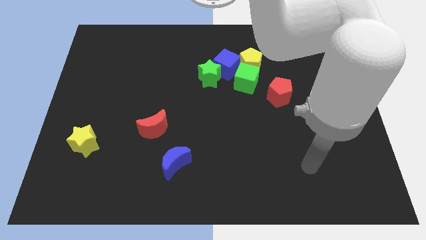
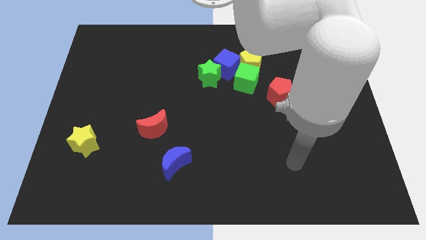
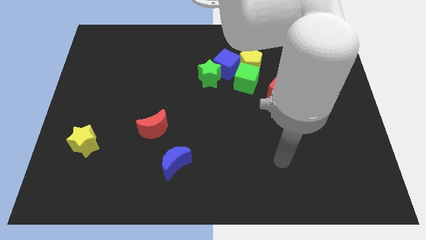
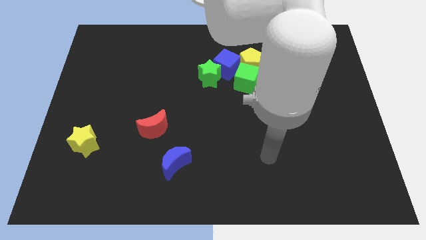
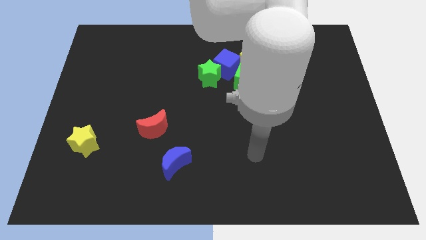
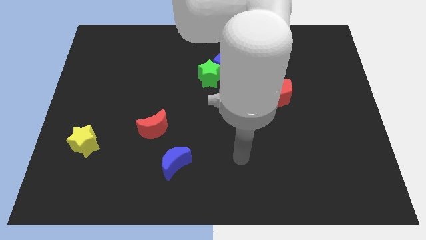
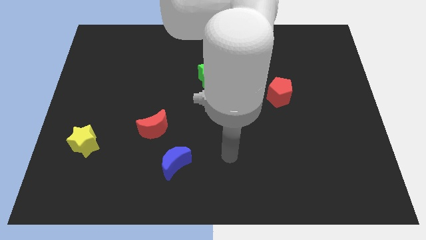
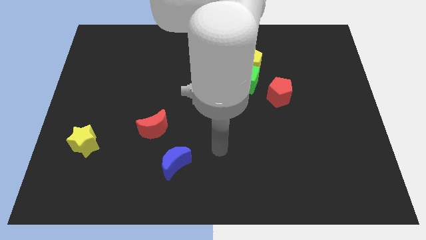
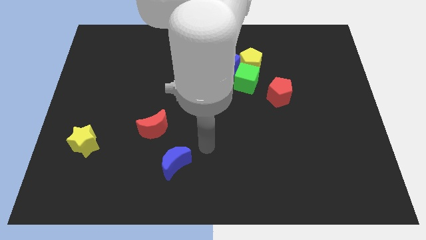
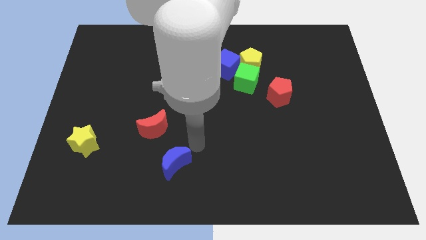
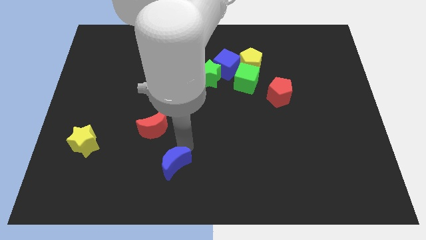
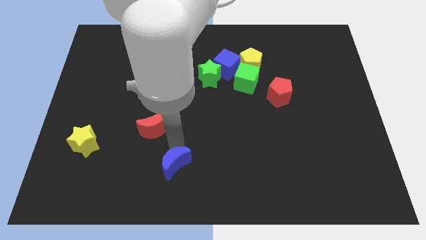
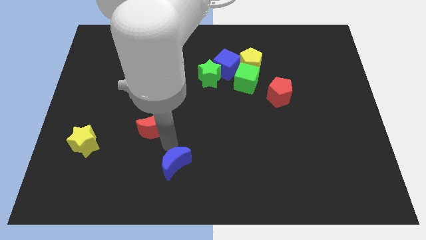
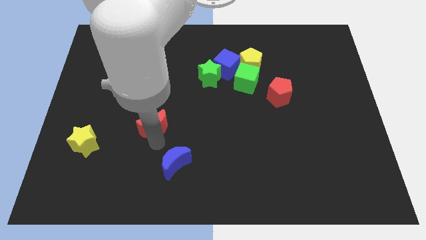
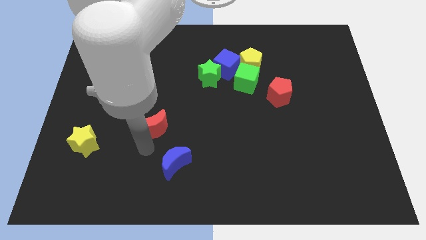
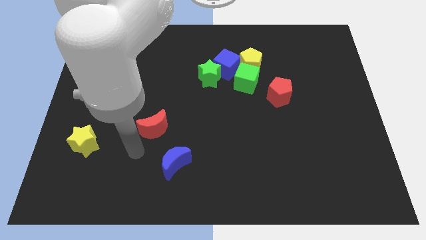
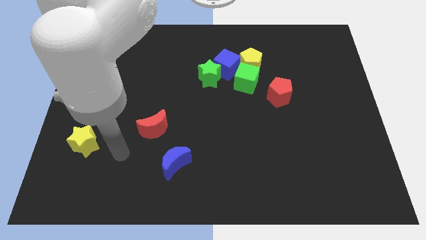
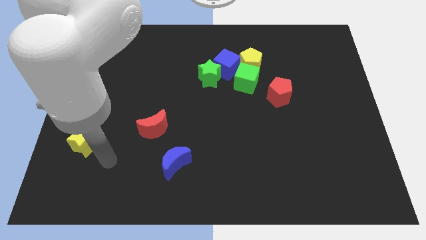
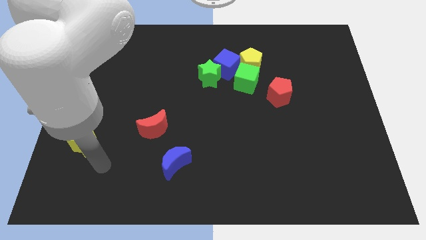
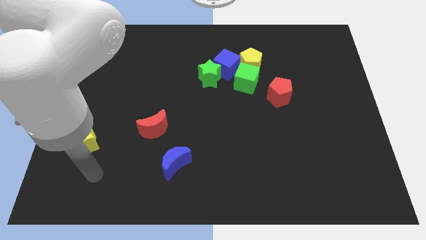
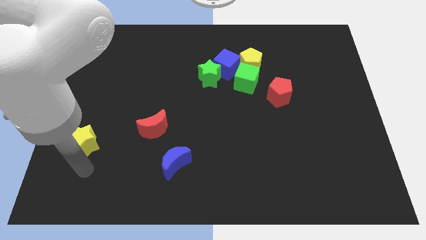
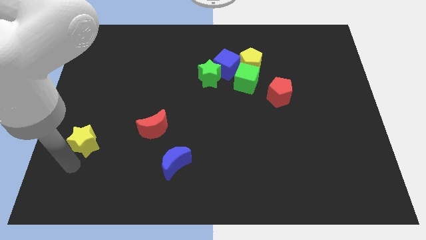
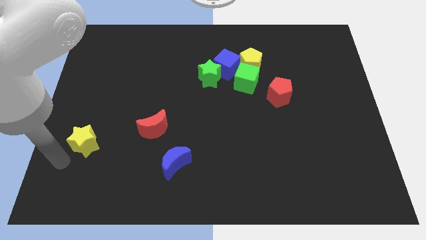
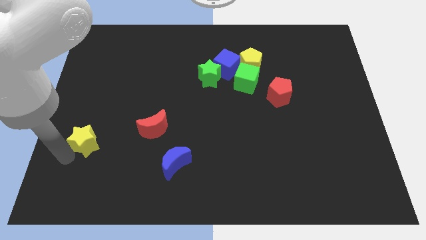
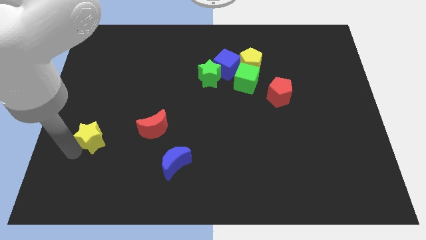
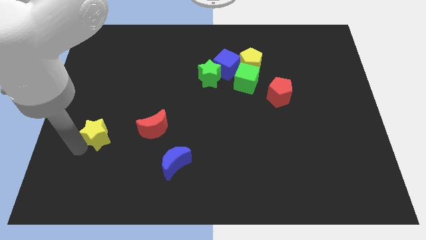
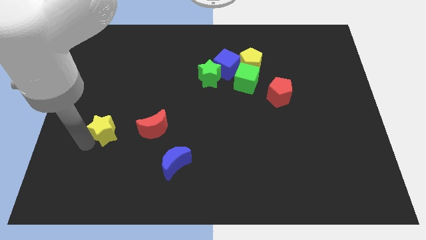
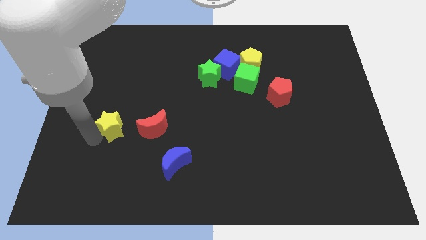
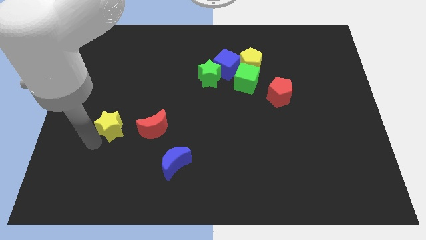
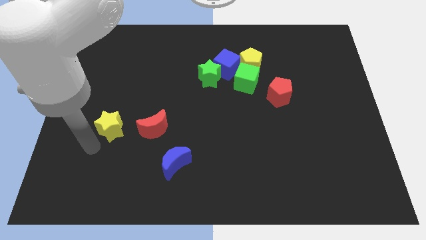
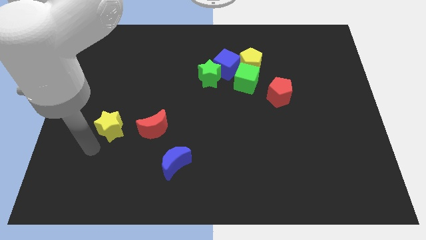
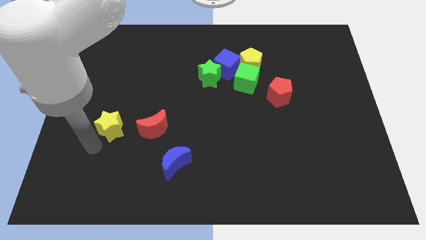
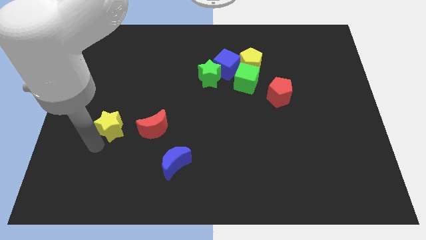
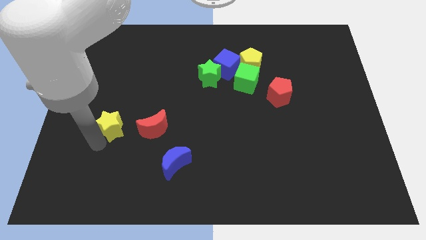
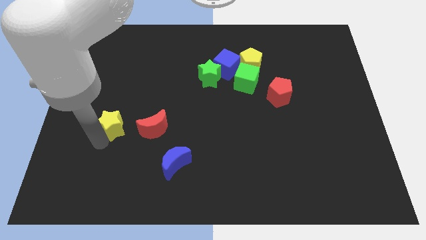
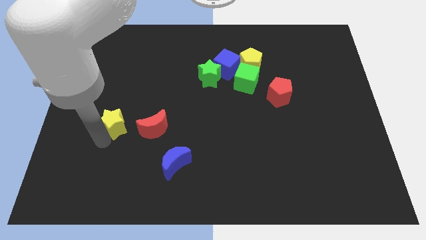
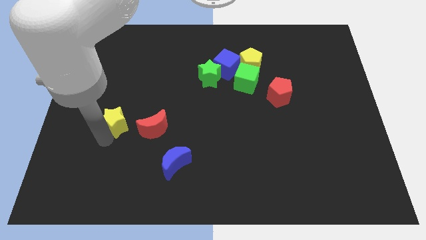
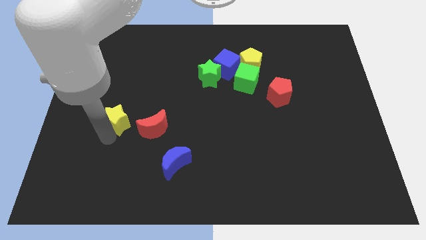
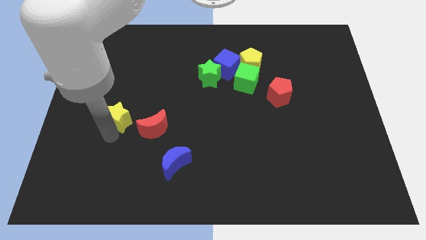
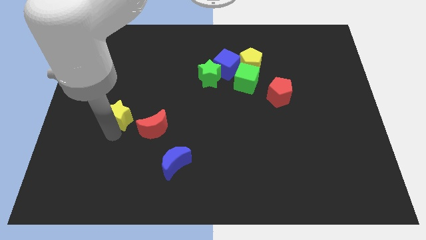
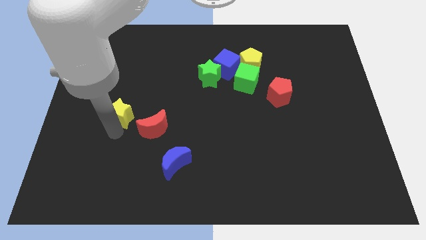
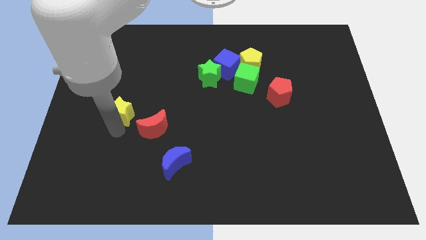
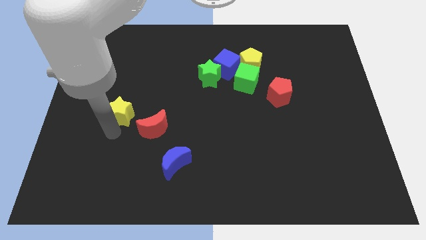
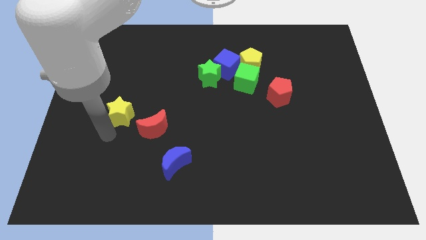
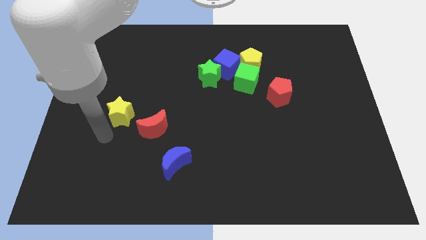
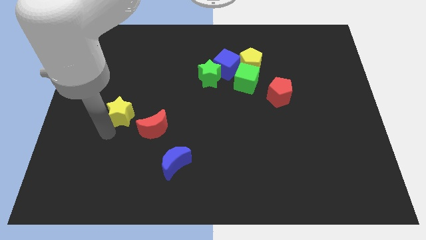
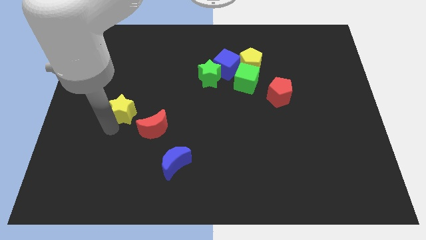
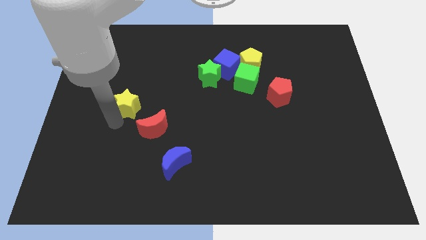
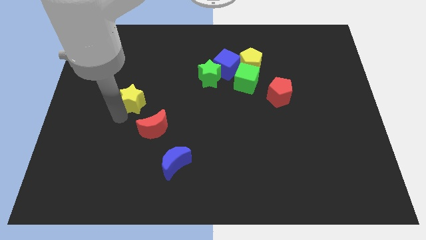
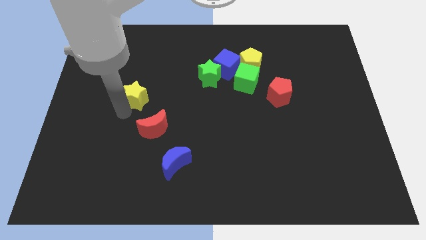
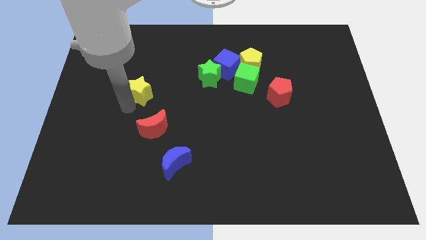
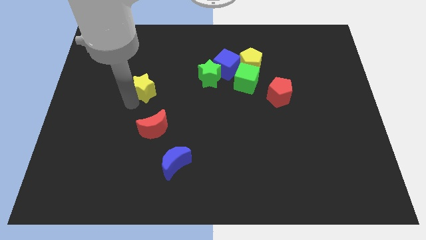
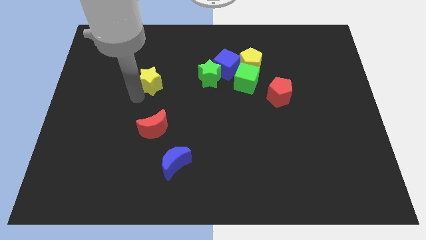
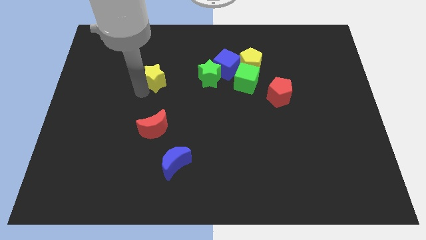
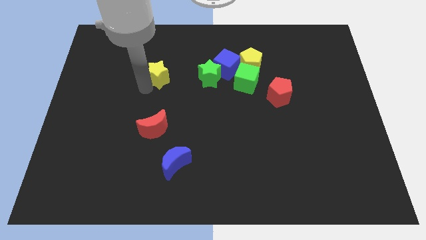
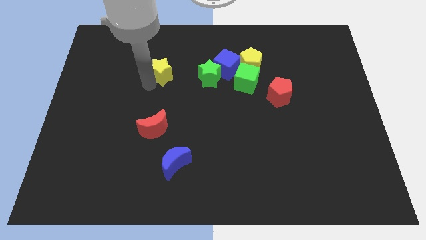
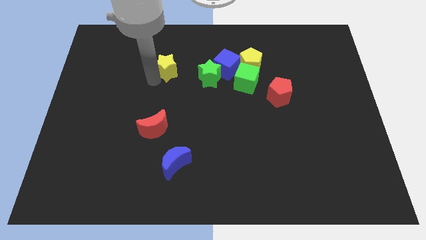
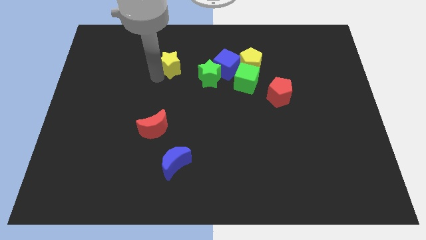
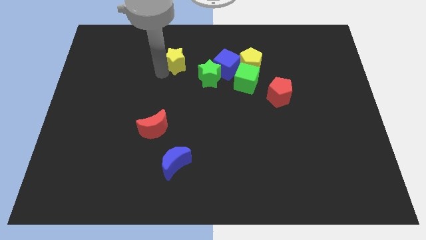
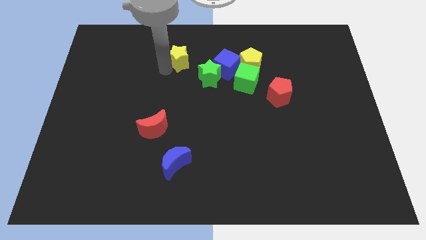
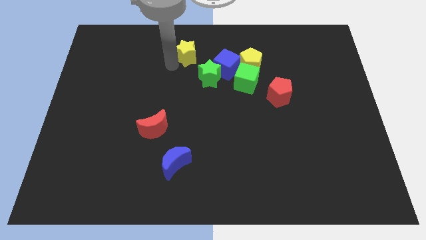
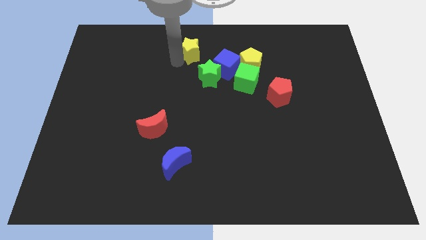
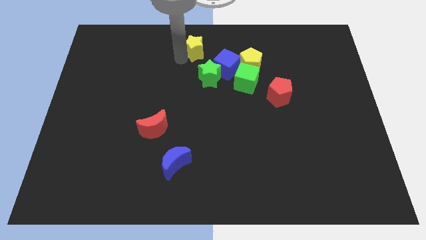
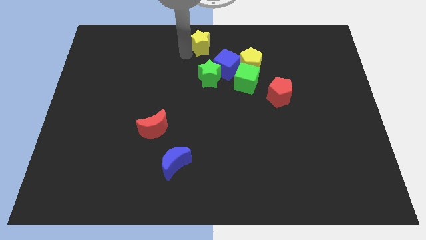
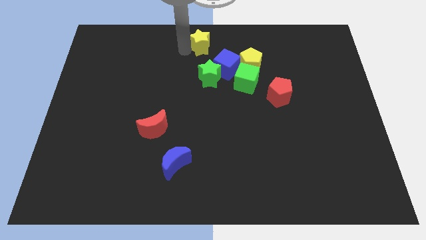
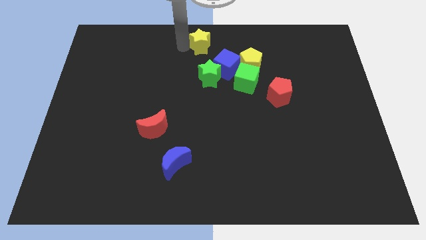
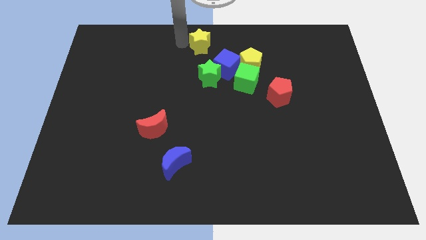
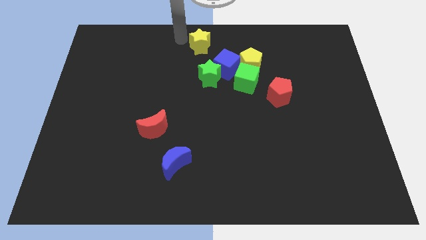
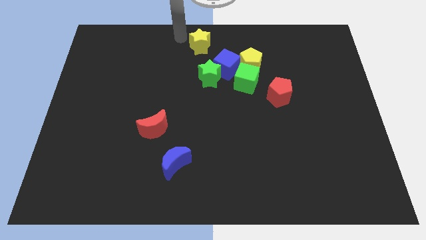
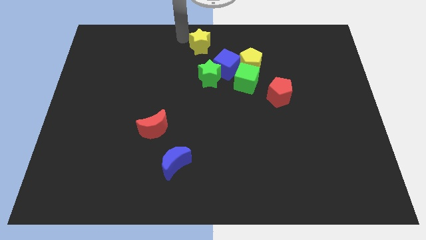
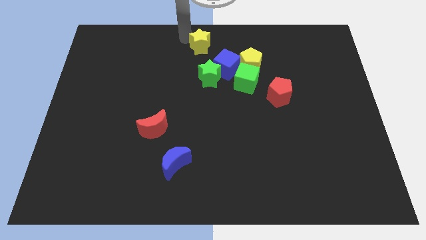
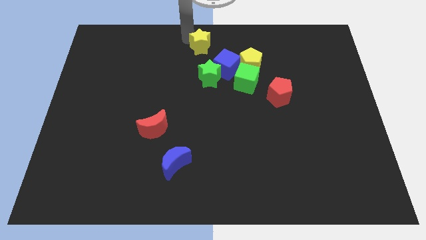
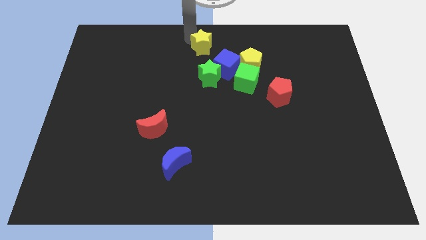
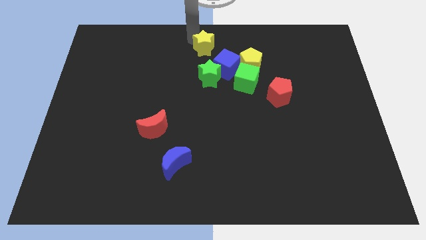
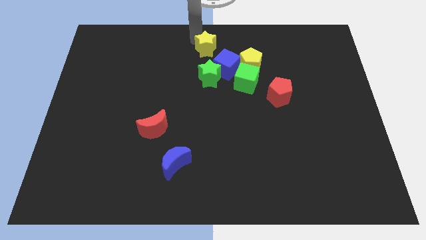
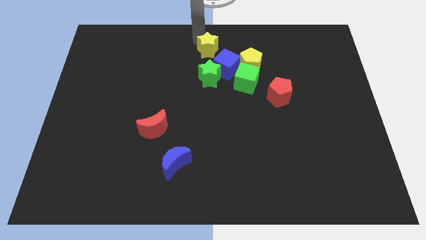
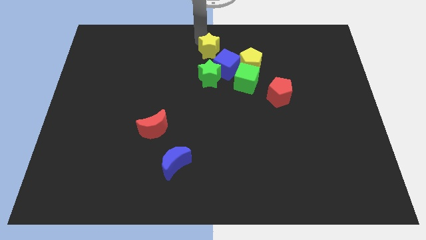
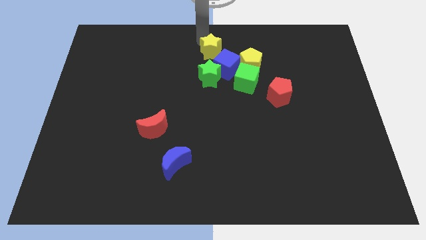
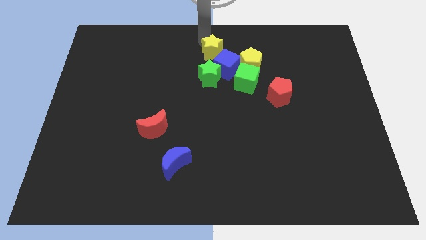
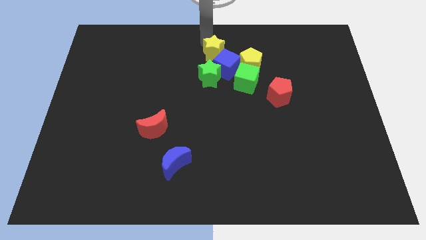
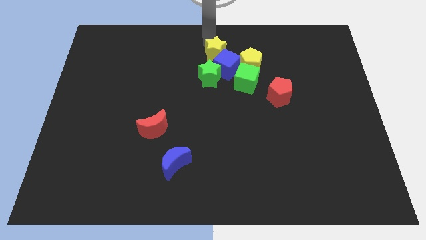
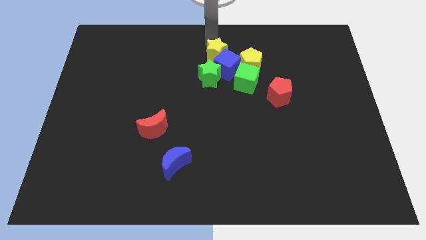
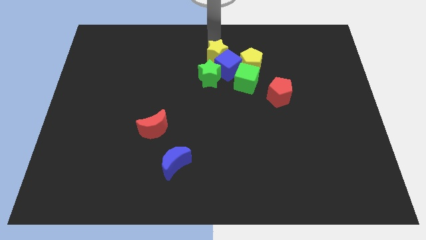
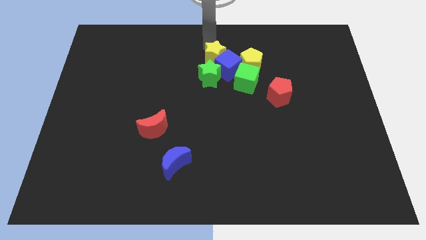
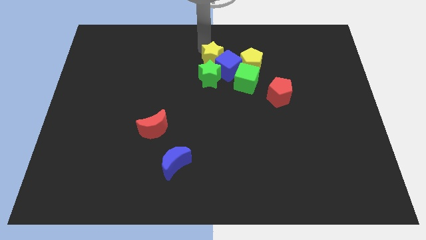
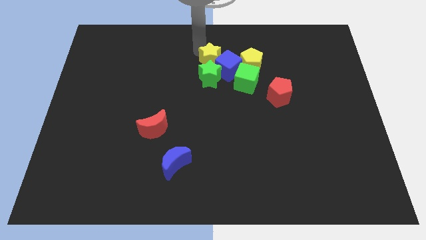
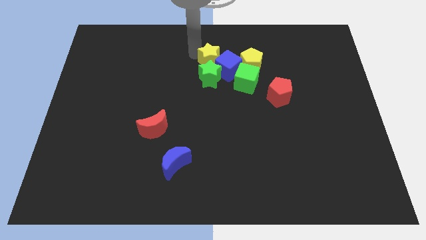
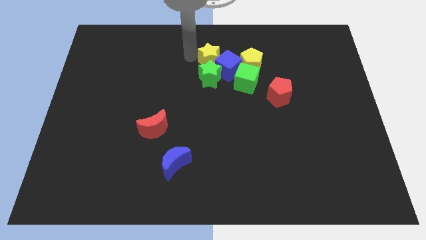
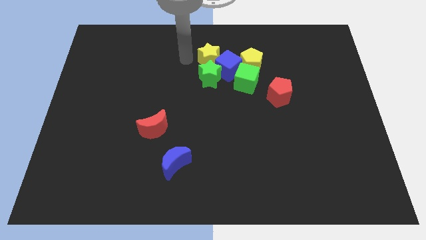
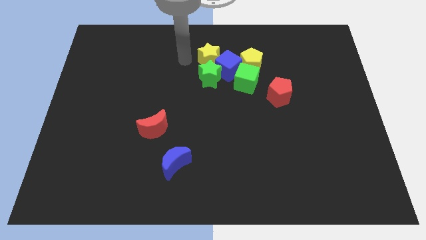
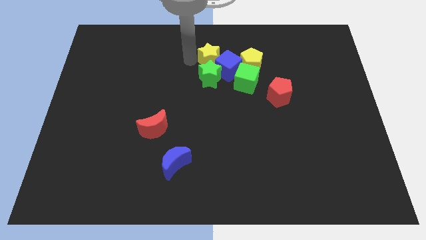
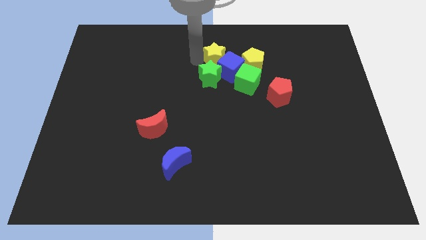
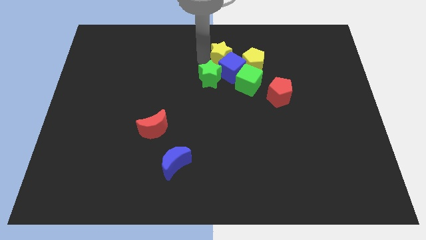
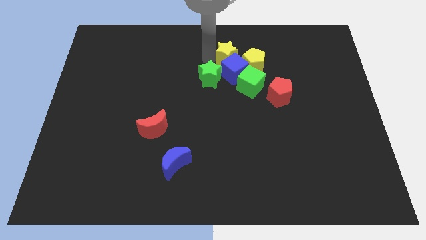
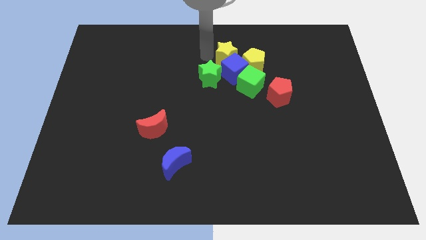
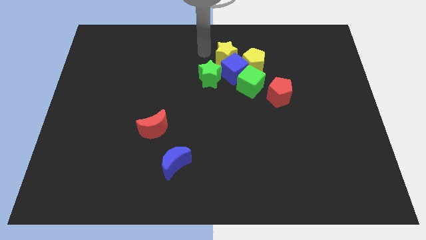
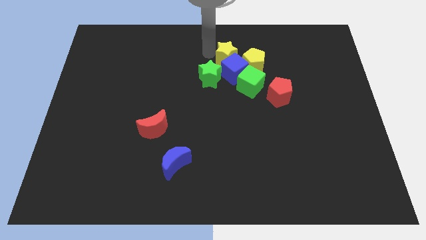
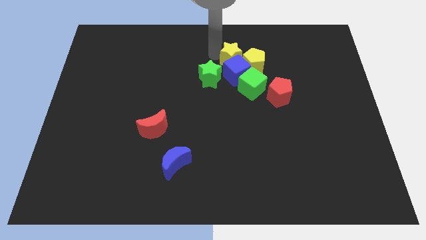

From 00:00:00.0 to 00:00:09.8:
move the yellow star close to the yellow pentagon
